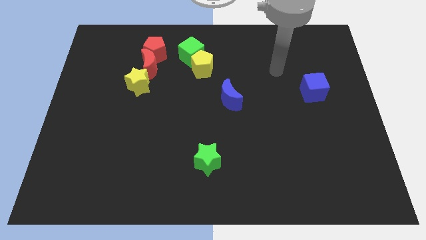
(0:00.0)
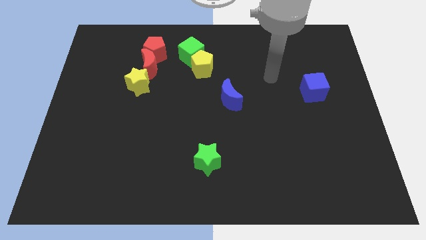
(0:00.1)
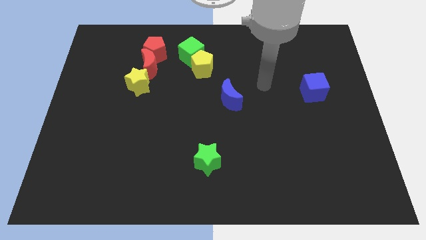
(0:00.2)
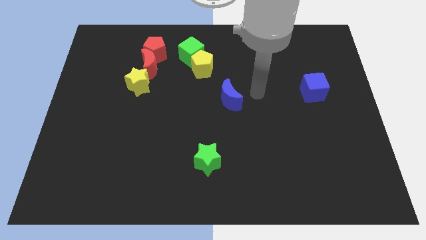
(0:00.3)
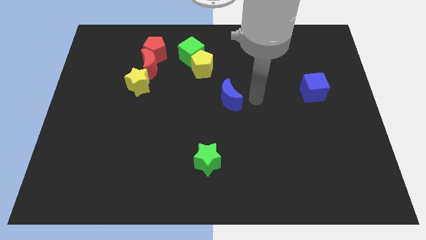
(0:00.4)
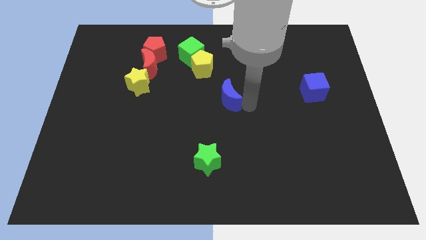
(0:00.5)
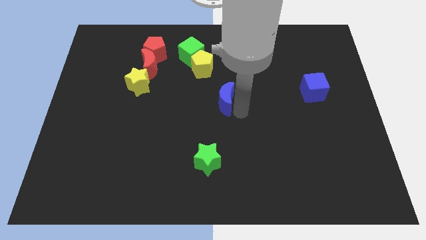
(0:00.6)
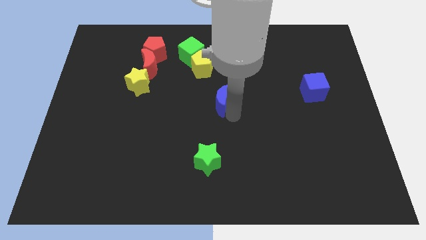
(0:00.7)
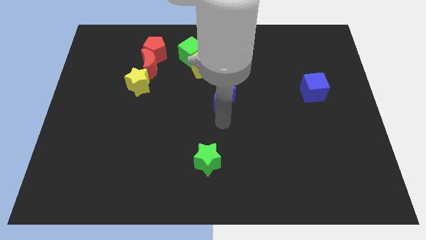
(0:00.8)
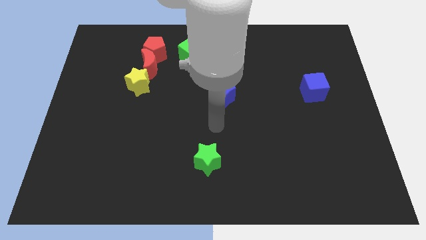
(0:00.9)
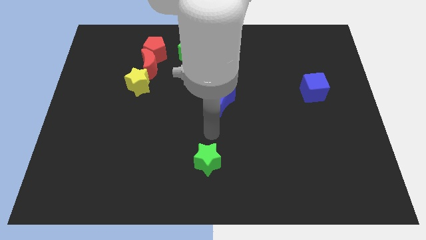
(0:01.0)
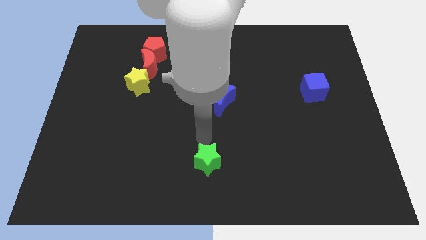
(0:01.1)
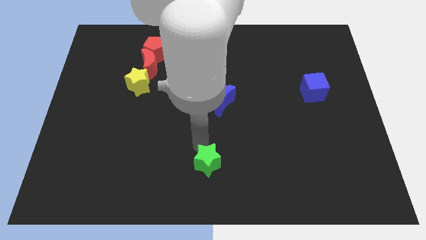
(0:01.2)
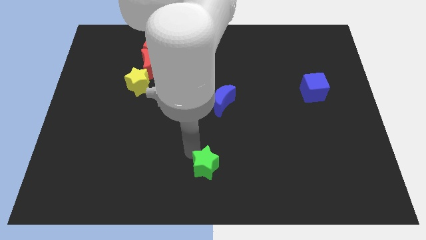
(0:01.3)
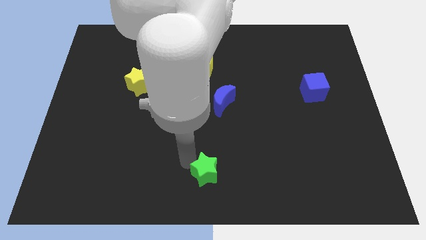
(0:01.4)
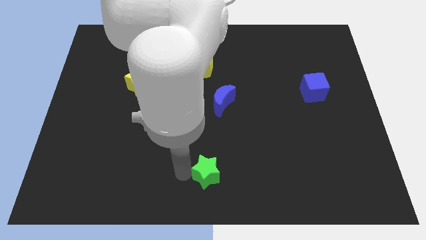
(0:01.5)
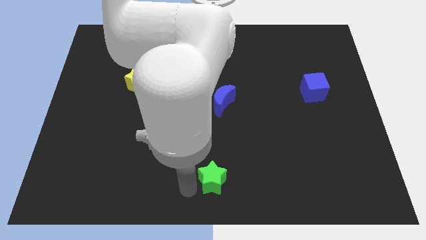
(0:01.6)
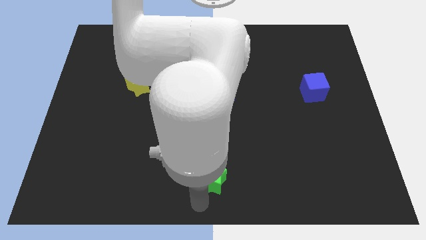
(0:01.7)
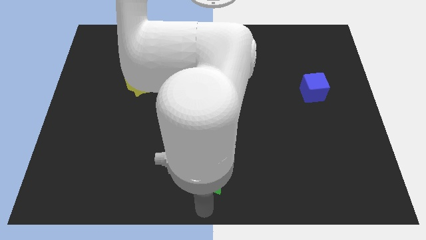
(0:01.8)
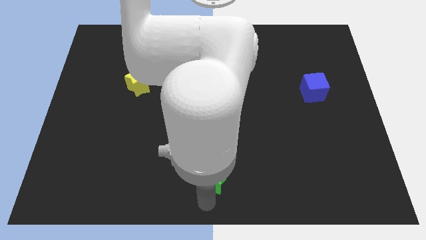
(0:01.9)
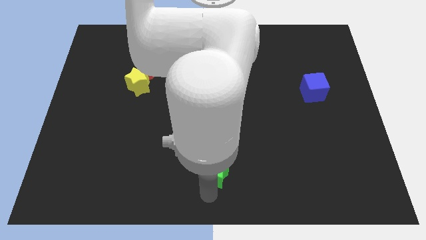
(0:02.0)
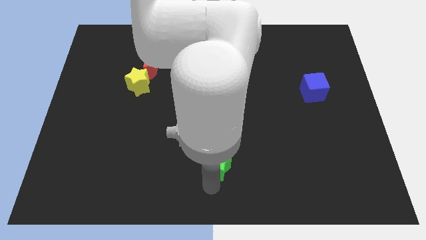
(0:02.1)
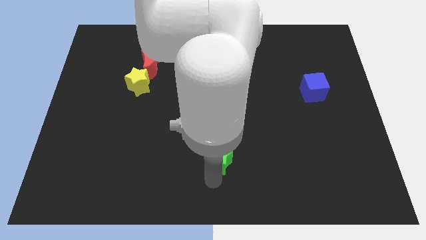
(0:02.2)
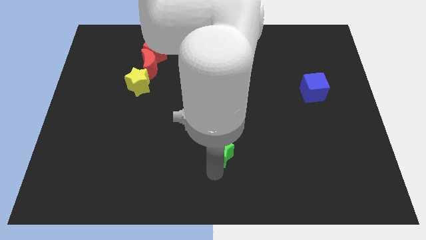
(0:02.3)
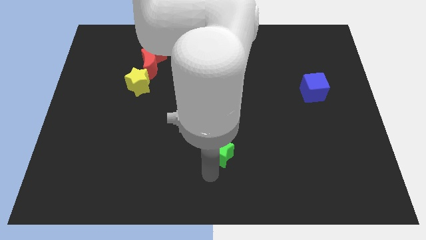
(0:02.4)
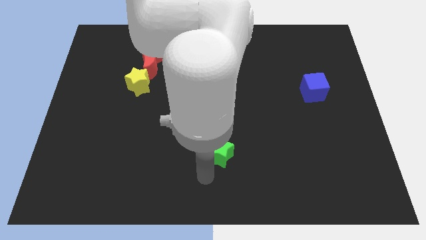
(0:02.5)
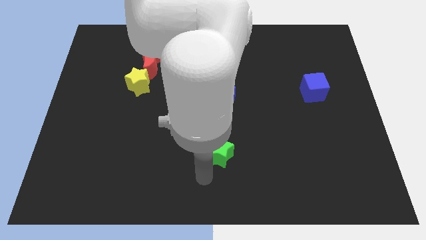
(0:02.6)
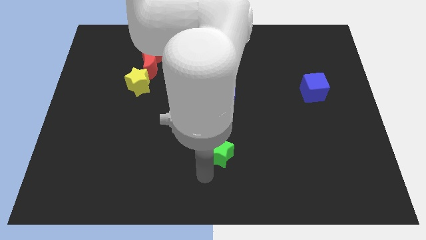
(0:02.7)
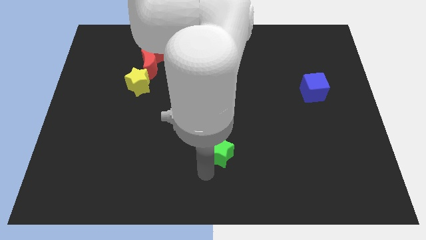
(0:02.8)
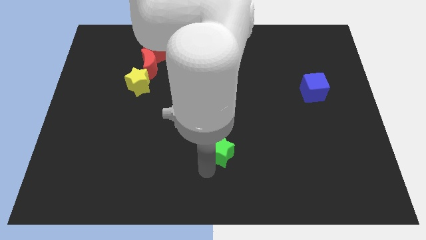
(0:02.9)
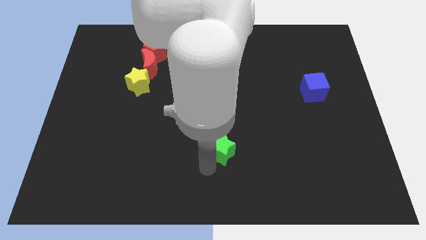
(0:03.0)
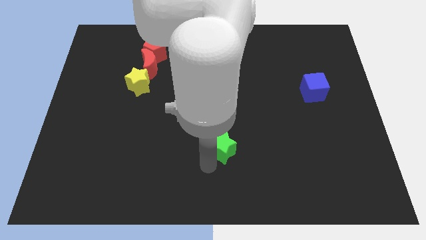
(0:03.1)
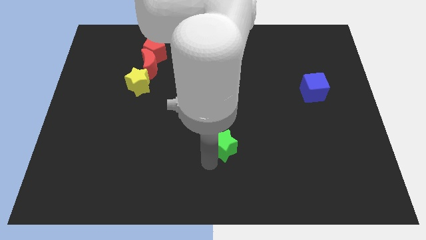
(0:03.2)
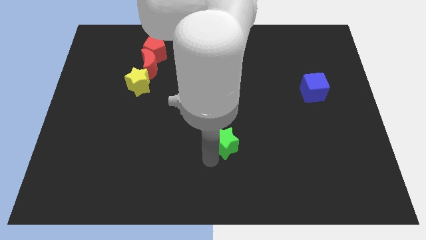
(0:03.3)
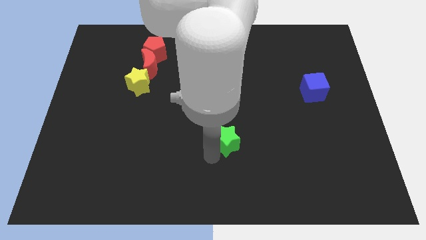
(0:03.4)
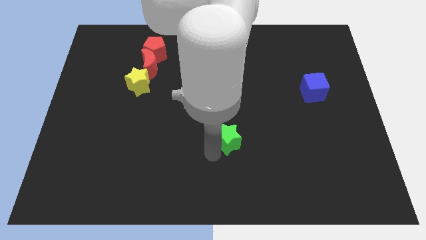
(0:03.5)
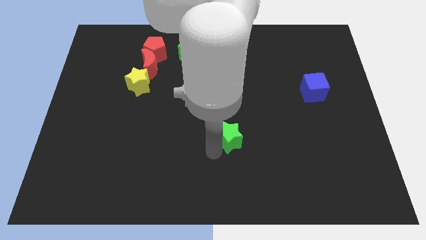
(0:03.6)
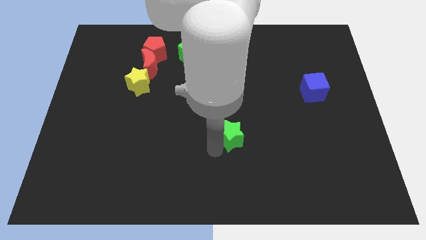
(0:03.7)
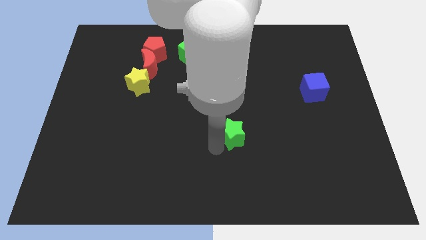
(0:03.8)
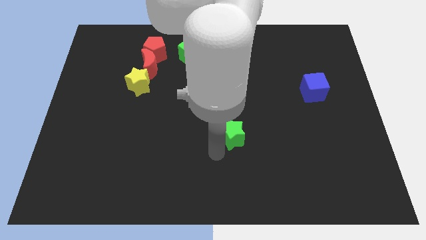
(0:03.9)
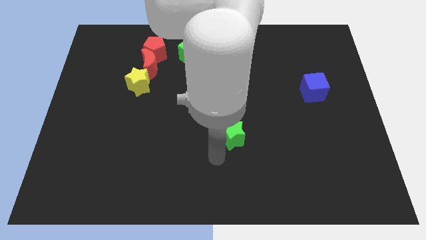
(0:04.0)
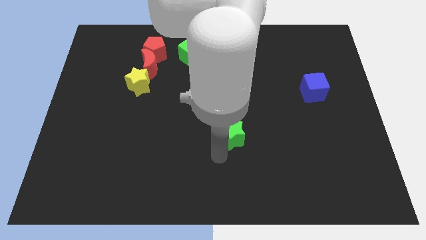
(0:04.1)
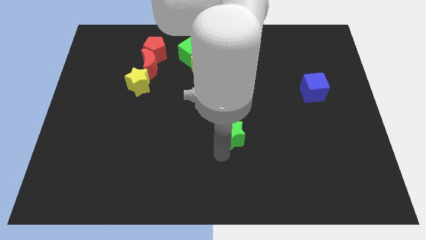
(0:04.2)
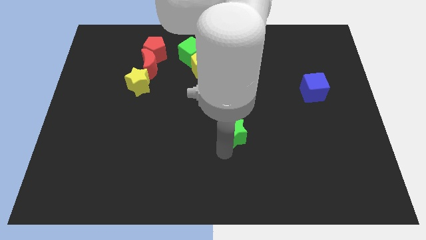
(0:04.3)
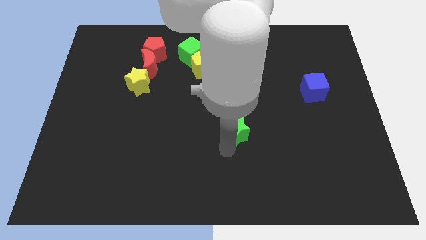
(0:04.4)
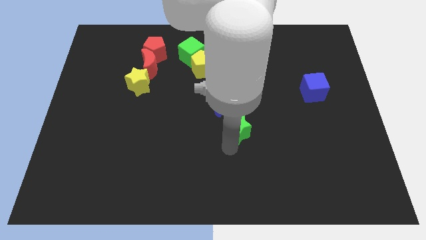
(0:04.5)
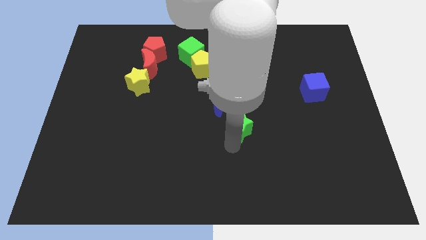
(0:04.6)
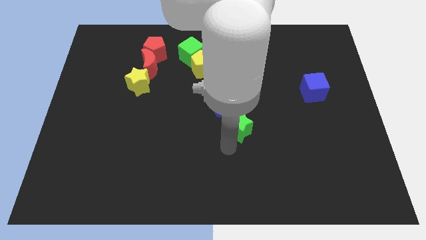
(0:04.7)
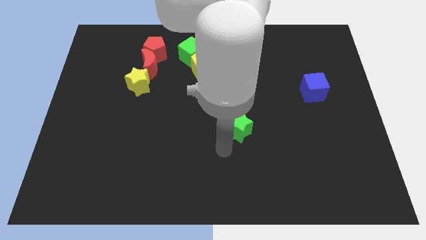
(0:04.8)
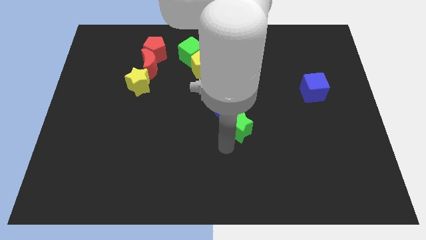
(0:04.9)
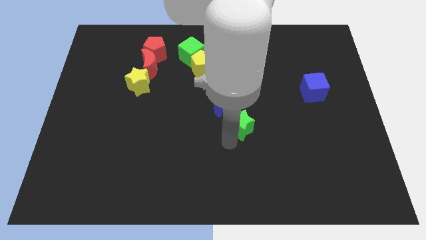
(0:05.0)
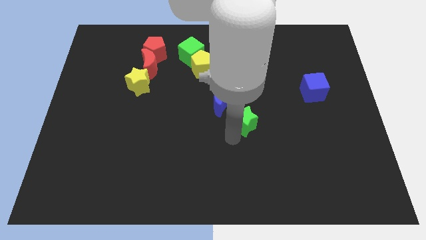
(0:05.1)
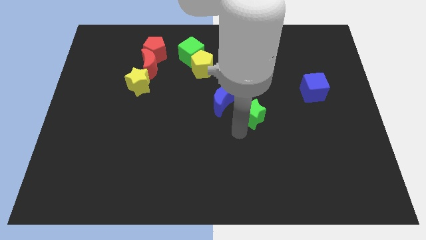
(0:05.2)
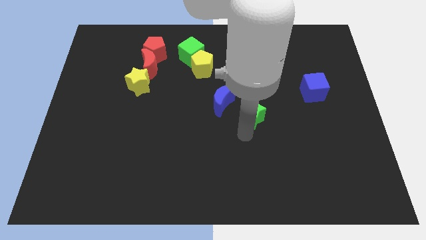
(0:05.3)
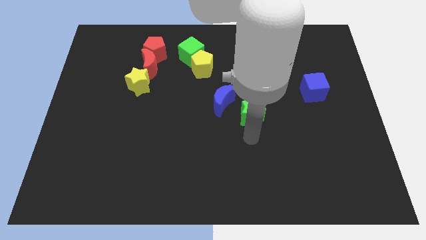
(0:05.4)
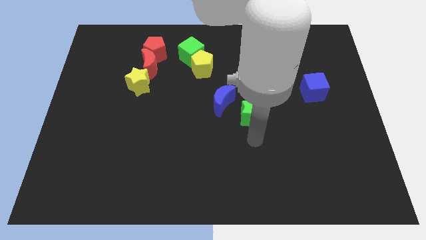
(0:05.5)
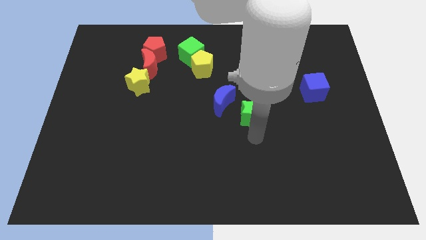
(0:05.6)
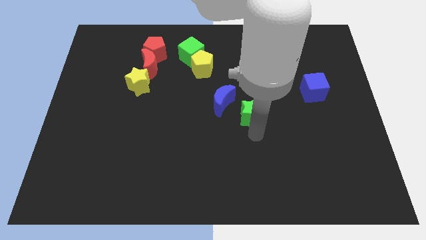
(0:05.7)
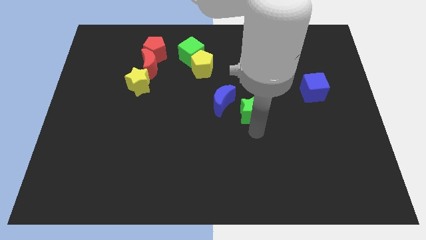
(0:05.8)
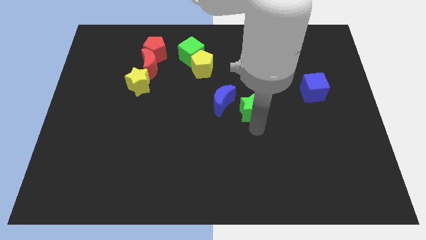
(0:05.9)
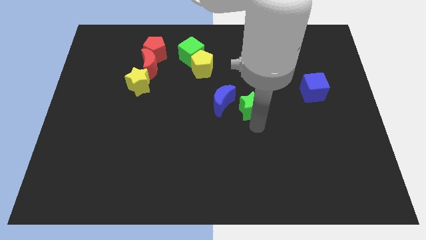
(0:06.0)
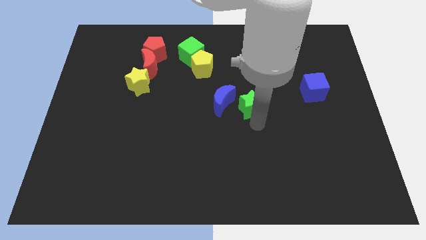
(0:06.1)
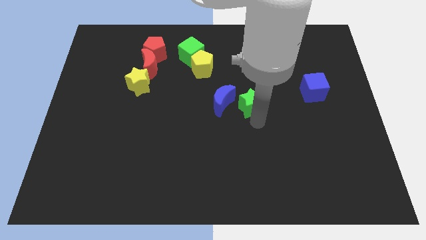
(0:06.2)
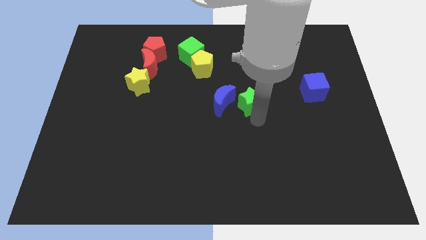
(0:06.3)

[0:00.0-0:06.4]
move the green star diagonally up and to the right of the blue moon

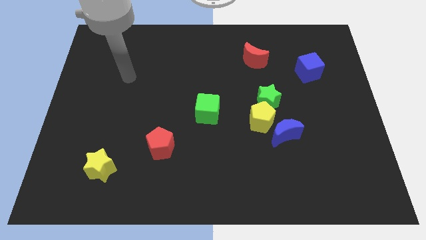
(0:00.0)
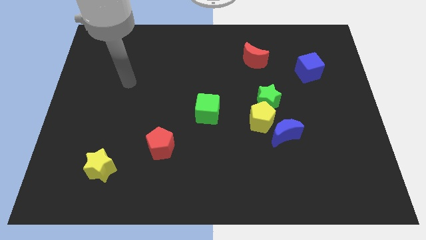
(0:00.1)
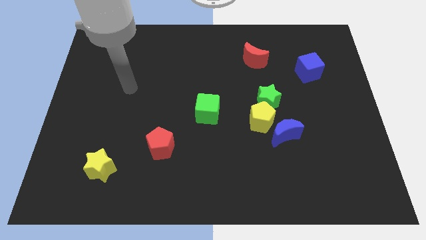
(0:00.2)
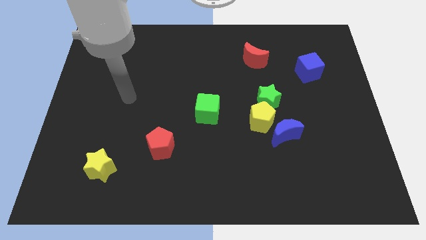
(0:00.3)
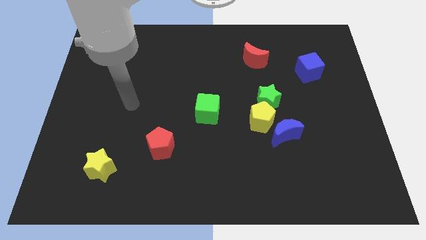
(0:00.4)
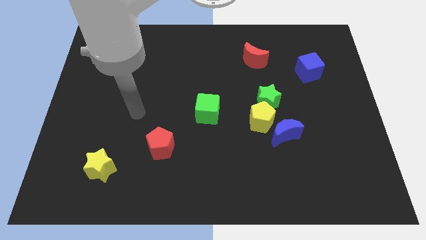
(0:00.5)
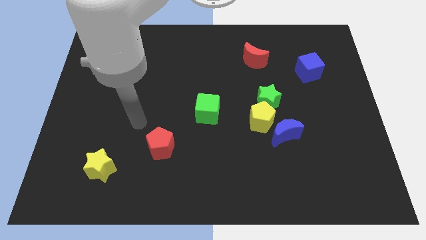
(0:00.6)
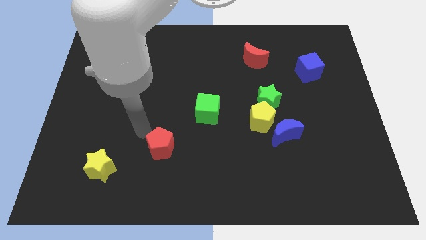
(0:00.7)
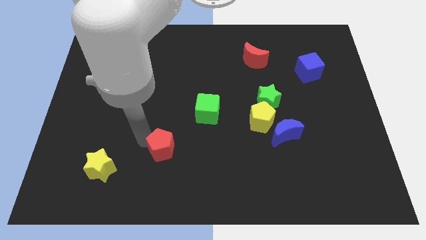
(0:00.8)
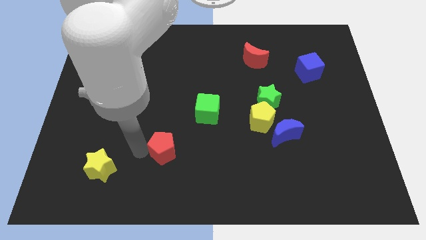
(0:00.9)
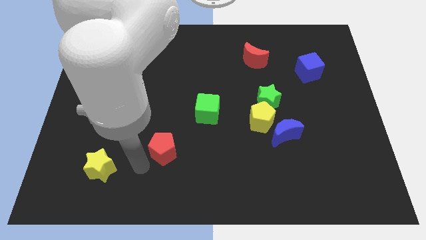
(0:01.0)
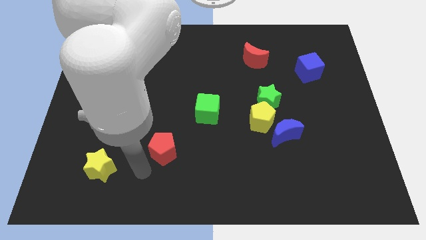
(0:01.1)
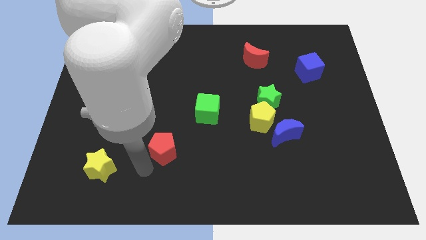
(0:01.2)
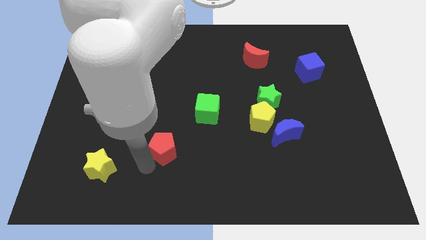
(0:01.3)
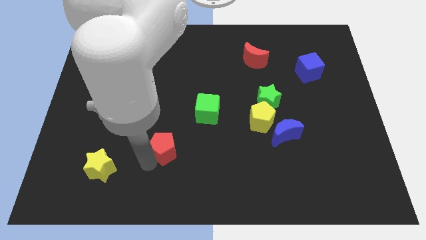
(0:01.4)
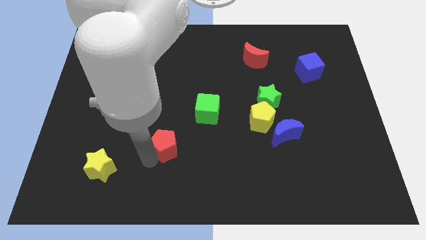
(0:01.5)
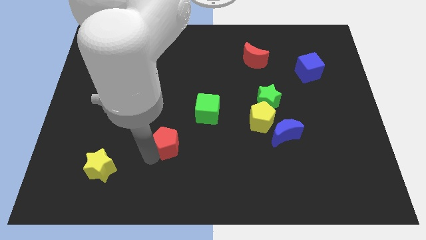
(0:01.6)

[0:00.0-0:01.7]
move the red pentagon to the bottom left of the green cube
